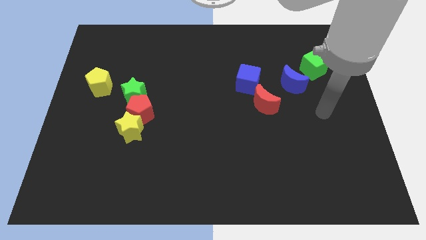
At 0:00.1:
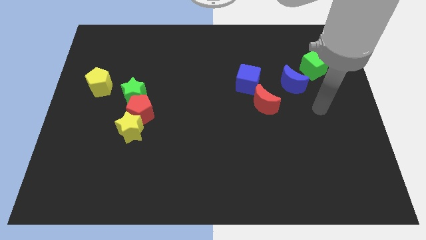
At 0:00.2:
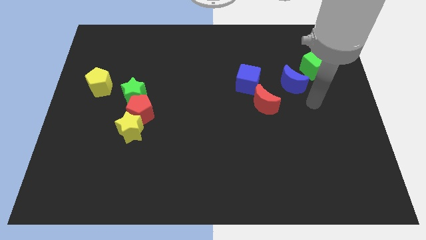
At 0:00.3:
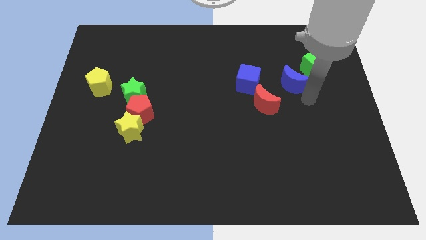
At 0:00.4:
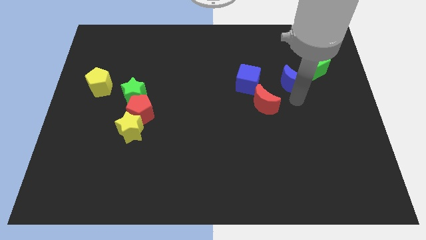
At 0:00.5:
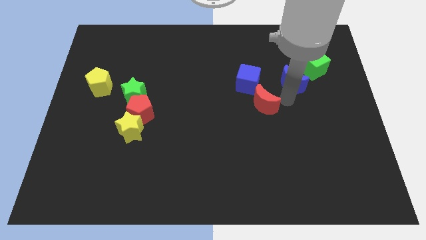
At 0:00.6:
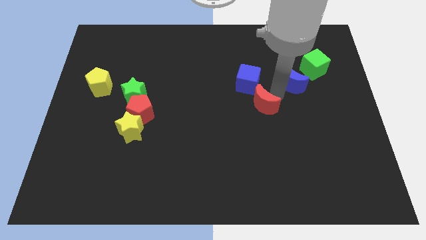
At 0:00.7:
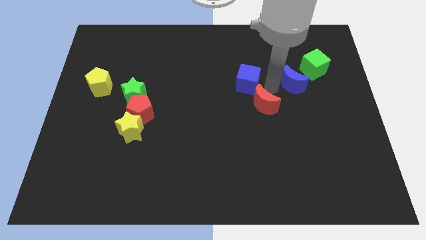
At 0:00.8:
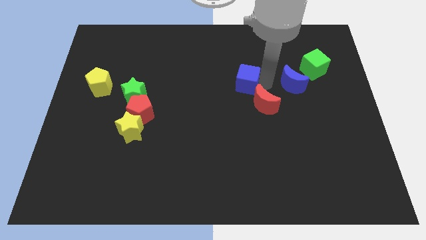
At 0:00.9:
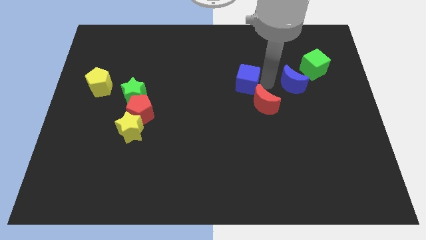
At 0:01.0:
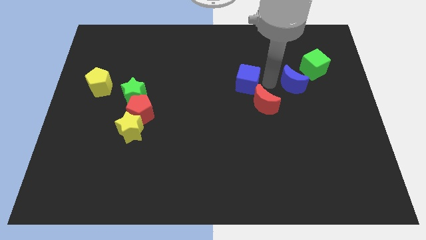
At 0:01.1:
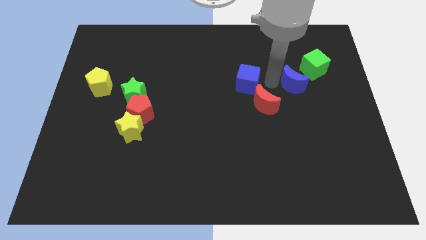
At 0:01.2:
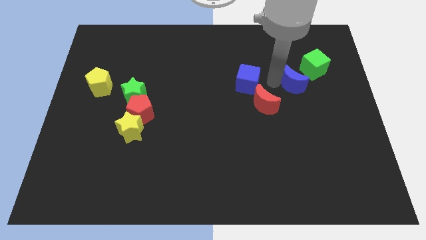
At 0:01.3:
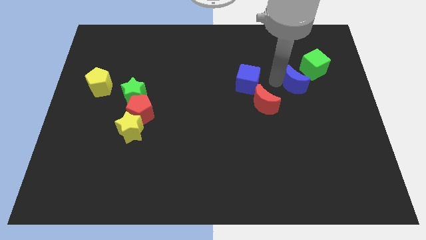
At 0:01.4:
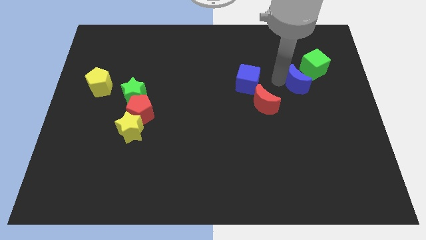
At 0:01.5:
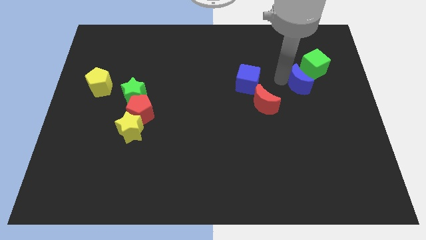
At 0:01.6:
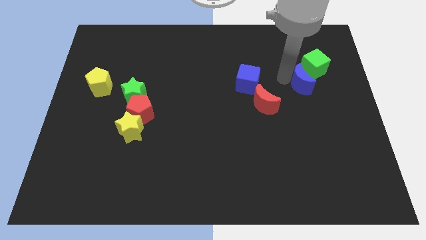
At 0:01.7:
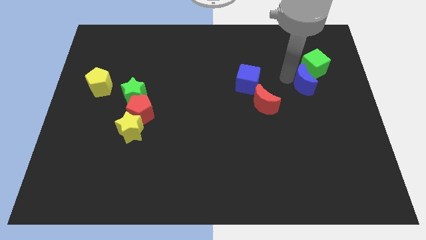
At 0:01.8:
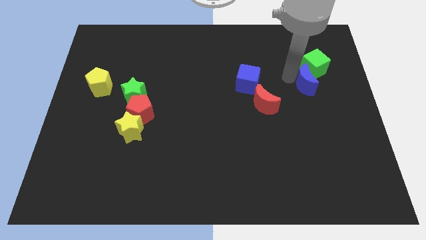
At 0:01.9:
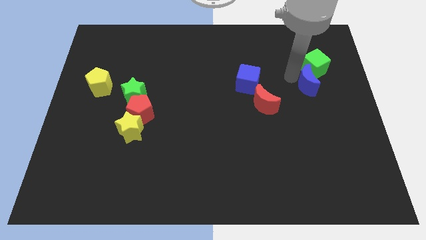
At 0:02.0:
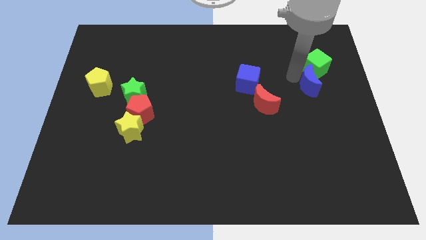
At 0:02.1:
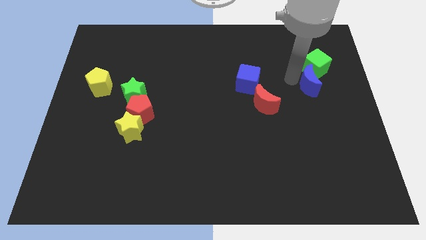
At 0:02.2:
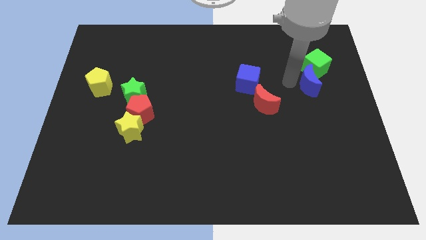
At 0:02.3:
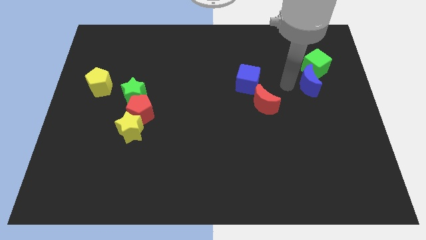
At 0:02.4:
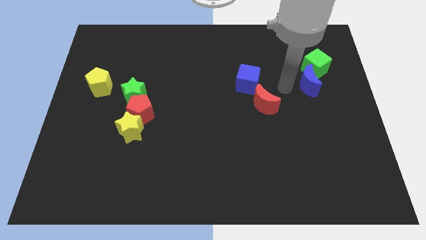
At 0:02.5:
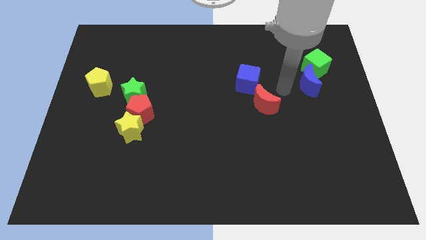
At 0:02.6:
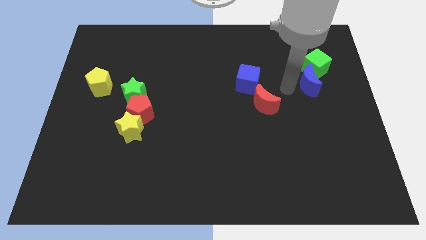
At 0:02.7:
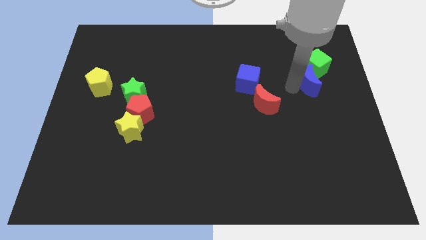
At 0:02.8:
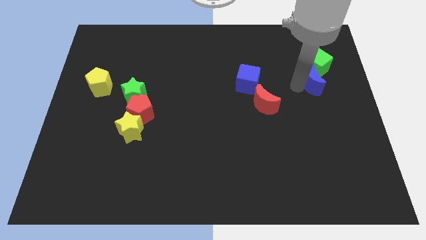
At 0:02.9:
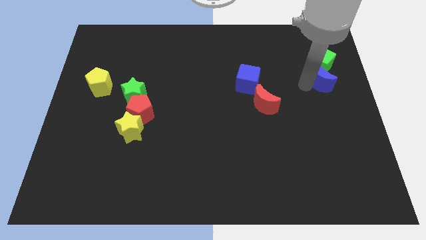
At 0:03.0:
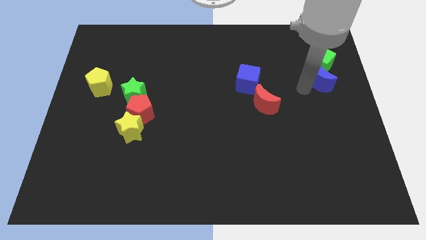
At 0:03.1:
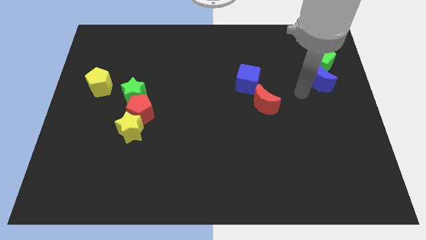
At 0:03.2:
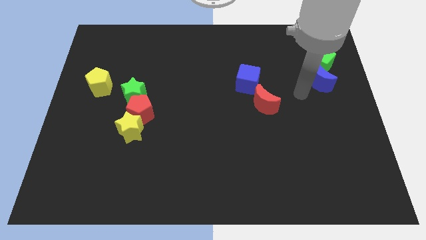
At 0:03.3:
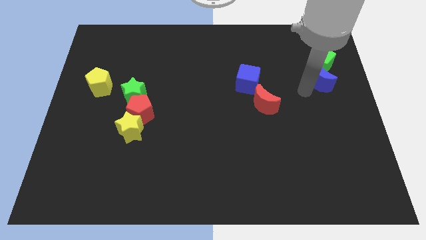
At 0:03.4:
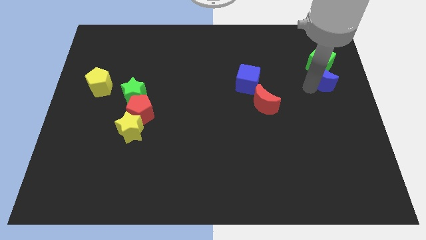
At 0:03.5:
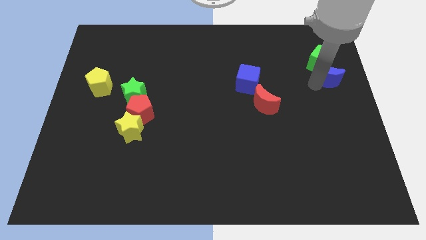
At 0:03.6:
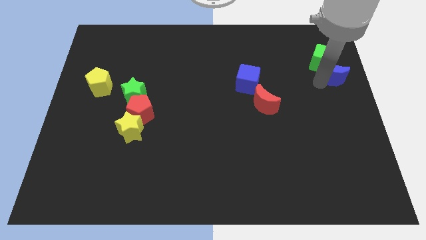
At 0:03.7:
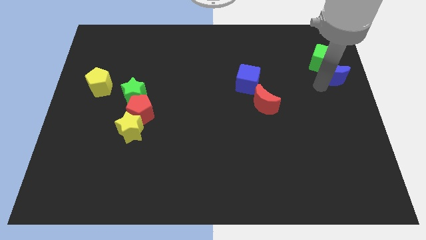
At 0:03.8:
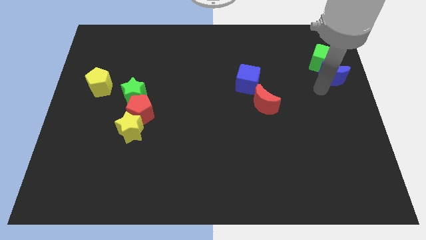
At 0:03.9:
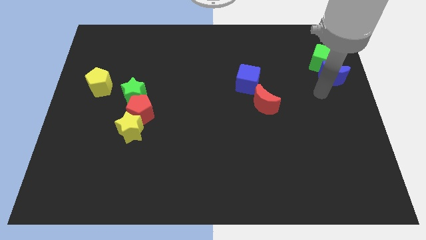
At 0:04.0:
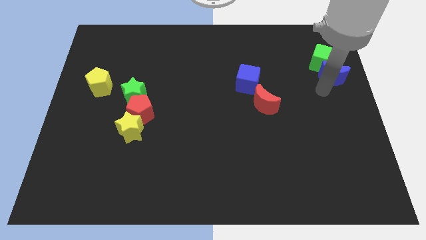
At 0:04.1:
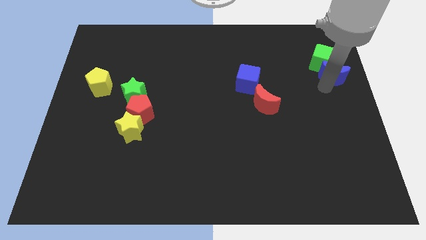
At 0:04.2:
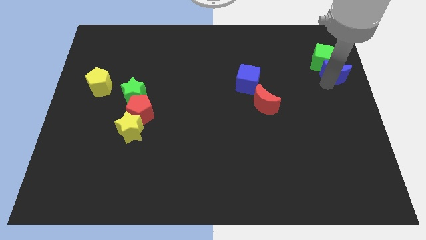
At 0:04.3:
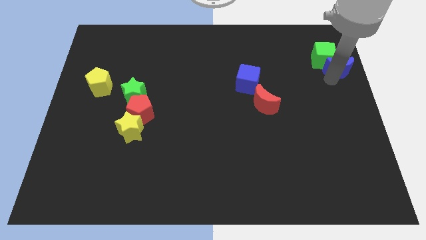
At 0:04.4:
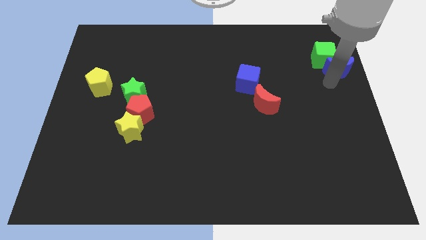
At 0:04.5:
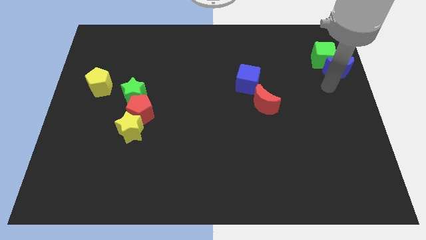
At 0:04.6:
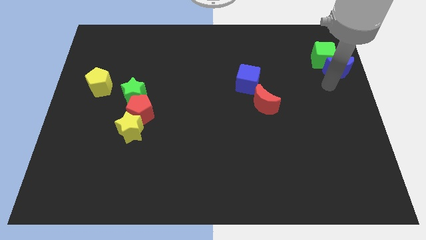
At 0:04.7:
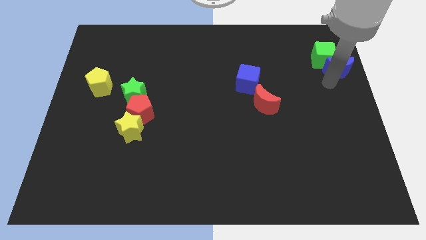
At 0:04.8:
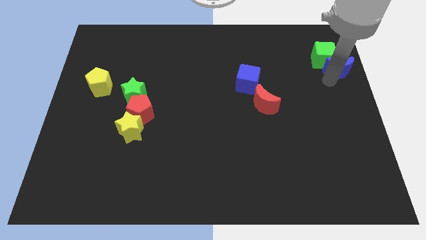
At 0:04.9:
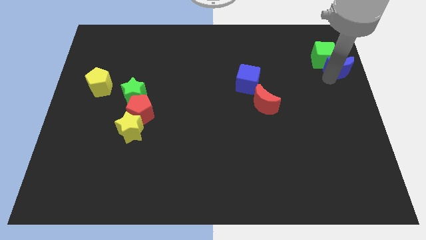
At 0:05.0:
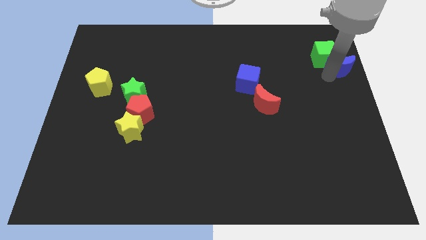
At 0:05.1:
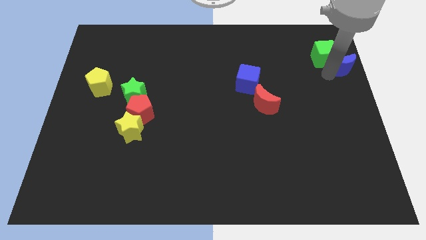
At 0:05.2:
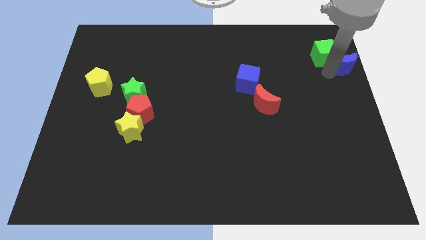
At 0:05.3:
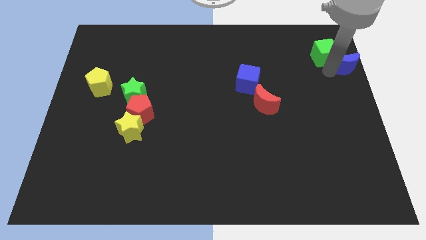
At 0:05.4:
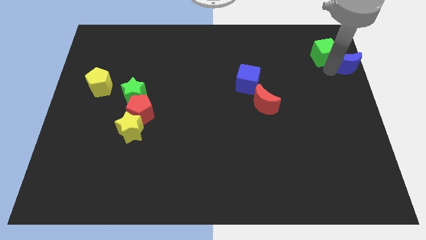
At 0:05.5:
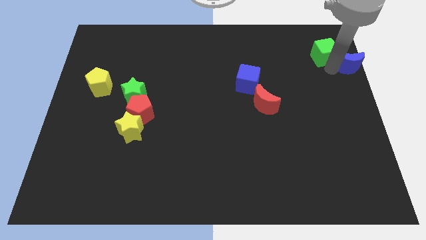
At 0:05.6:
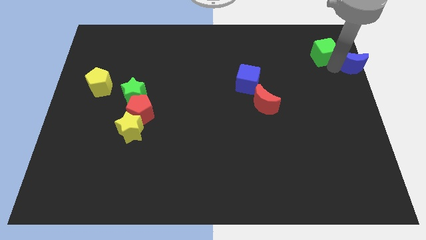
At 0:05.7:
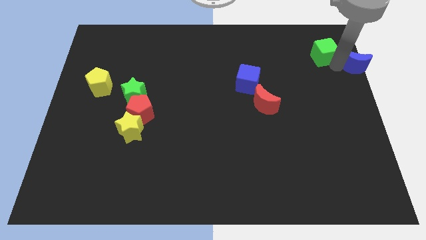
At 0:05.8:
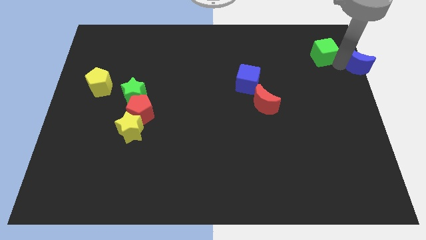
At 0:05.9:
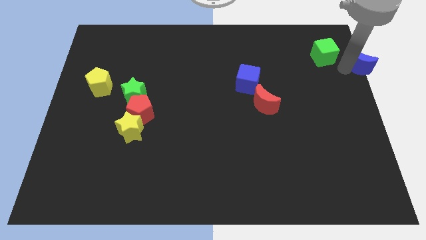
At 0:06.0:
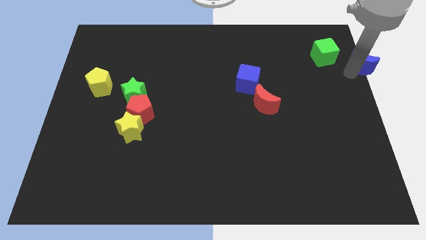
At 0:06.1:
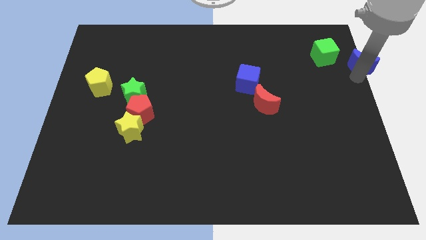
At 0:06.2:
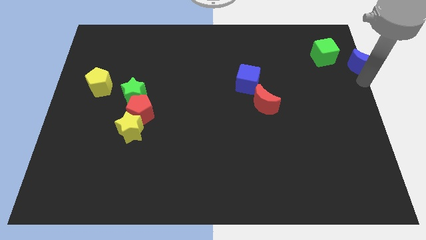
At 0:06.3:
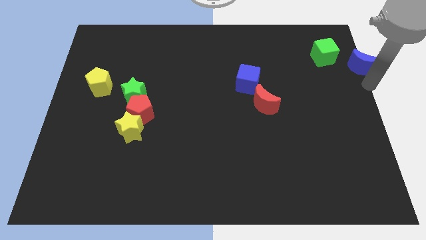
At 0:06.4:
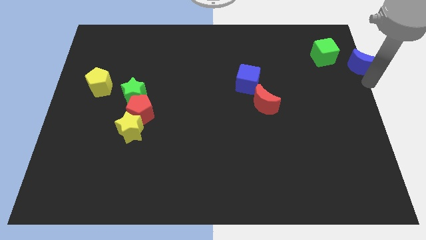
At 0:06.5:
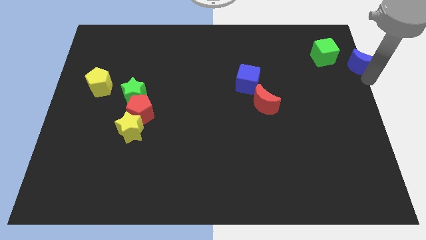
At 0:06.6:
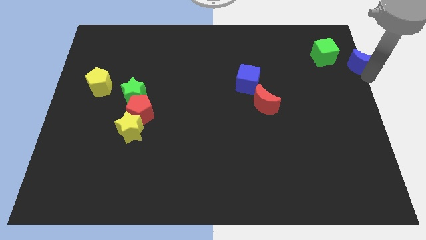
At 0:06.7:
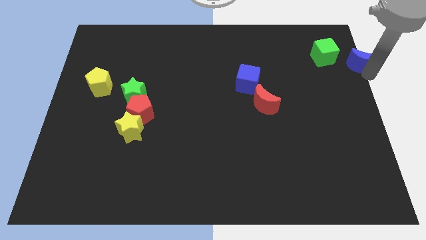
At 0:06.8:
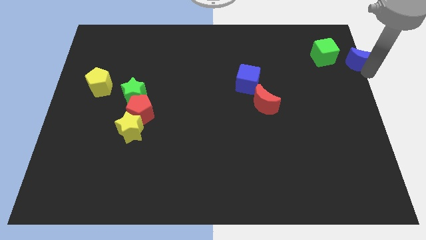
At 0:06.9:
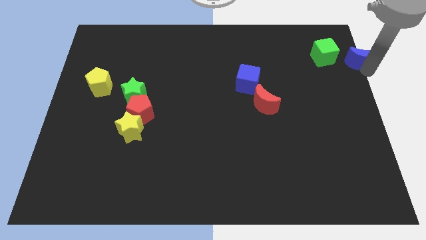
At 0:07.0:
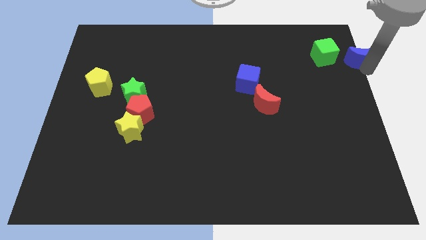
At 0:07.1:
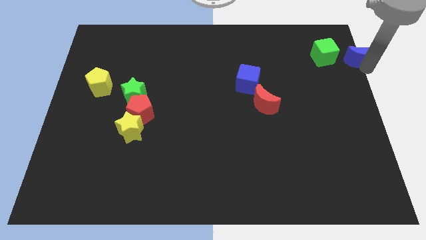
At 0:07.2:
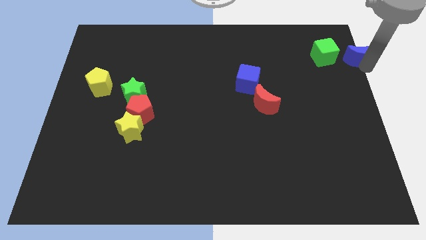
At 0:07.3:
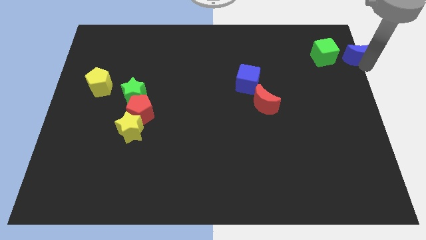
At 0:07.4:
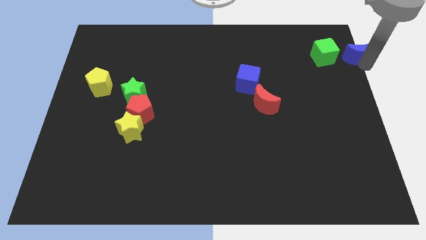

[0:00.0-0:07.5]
push the blue moon to the top right of the board
